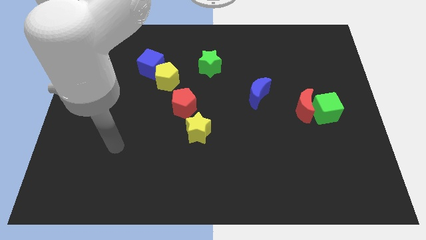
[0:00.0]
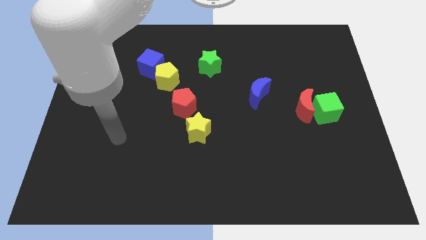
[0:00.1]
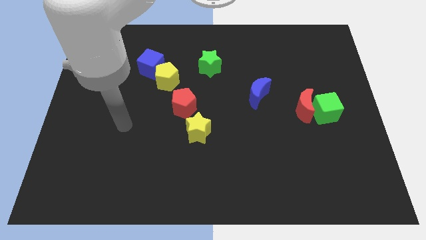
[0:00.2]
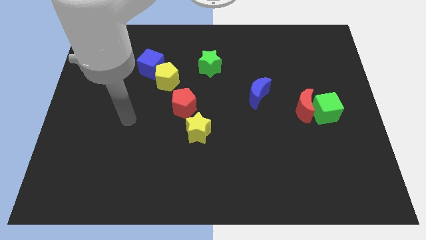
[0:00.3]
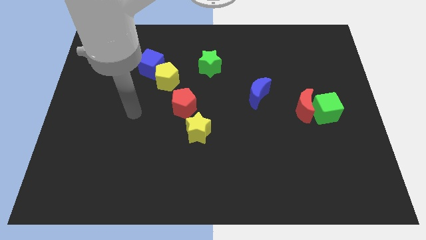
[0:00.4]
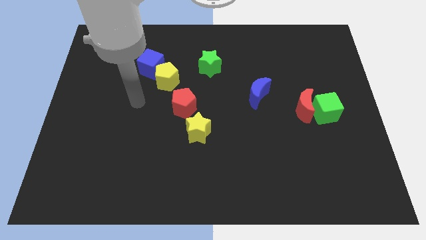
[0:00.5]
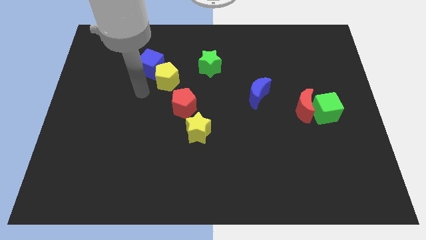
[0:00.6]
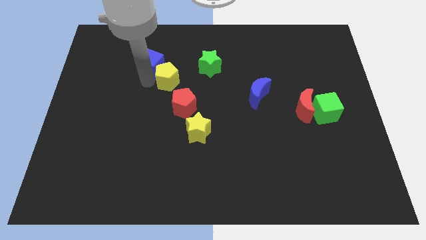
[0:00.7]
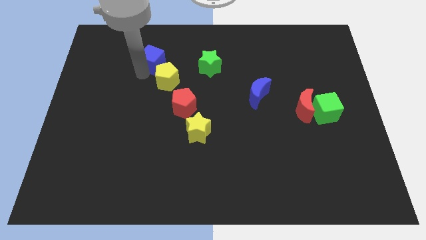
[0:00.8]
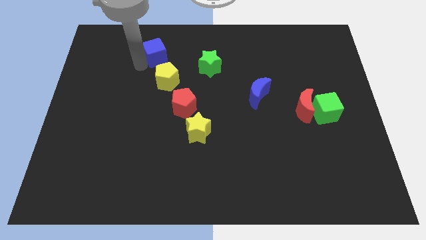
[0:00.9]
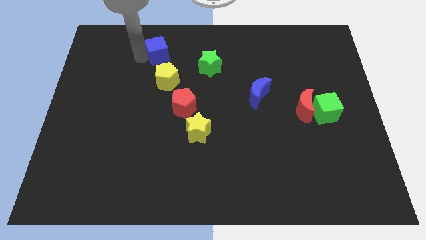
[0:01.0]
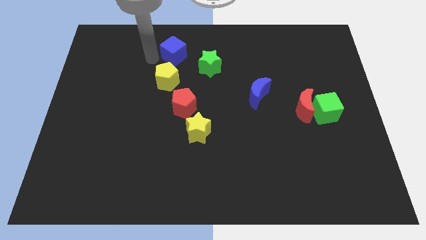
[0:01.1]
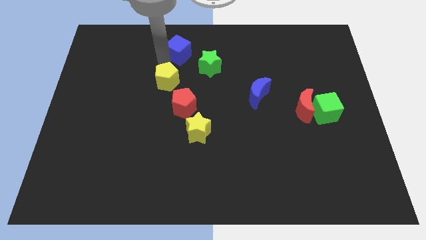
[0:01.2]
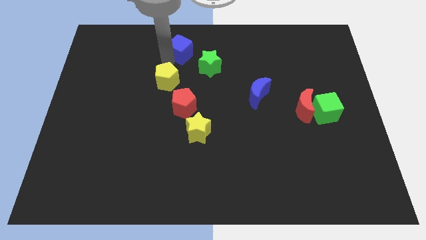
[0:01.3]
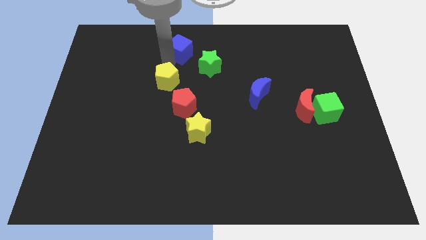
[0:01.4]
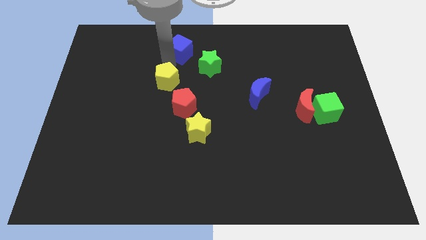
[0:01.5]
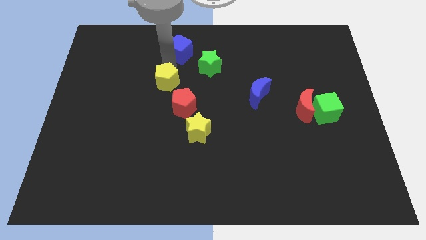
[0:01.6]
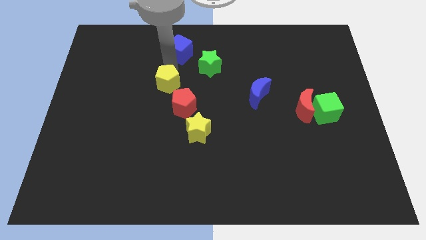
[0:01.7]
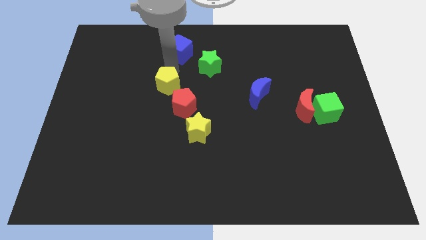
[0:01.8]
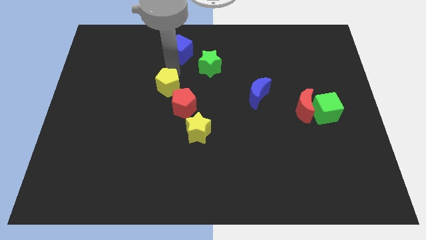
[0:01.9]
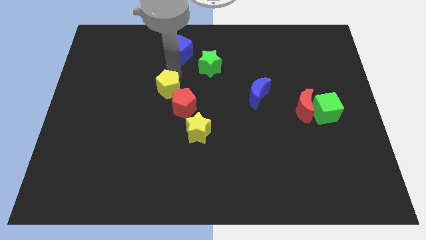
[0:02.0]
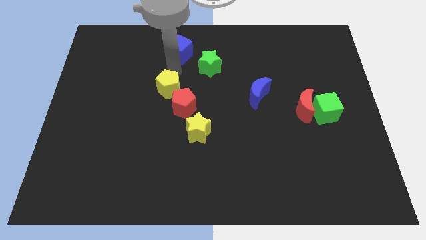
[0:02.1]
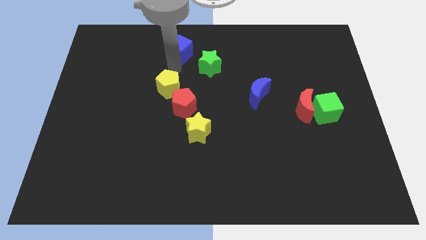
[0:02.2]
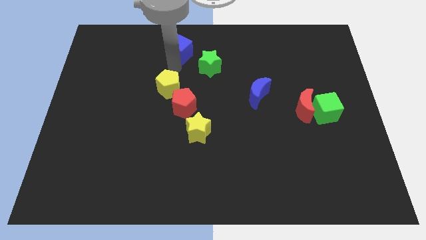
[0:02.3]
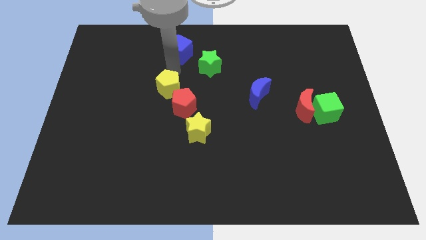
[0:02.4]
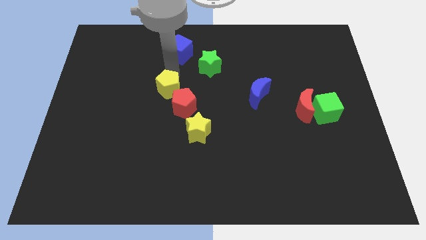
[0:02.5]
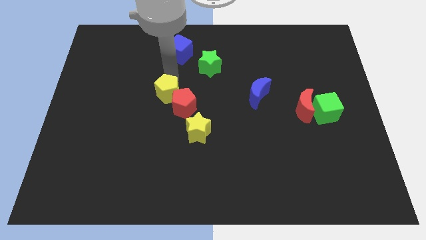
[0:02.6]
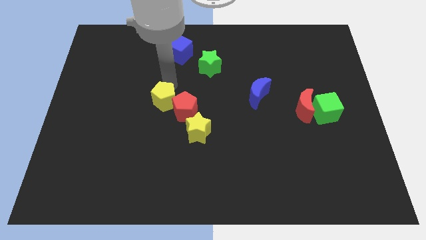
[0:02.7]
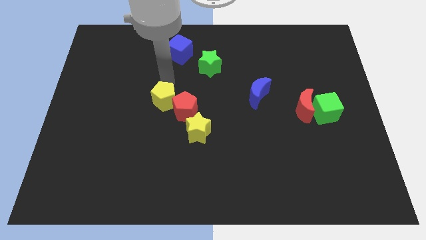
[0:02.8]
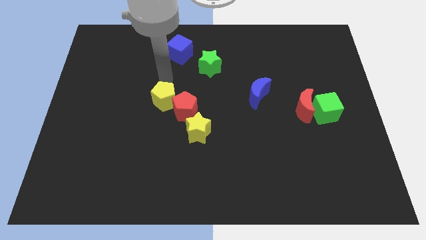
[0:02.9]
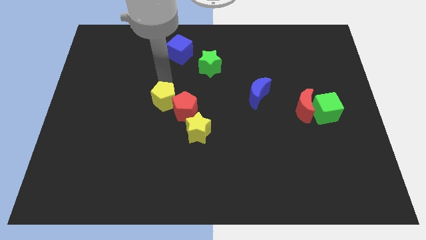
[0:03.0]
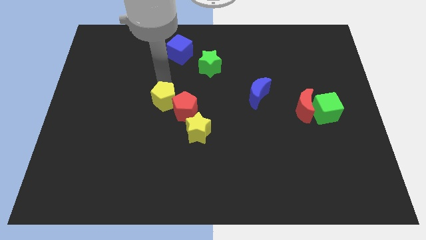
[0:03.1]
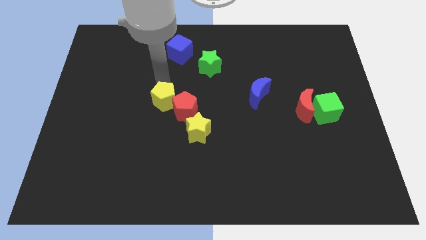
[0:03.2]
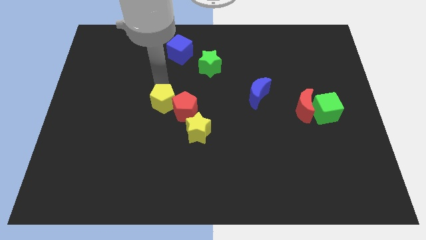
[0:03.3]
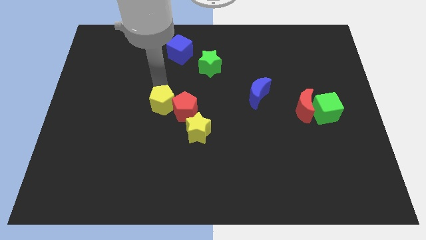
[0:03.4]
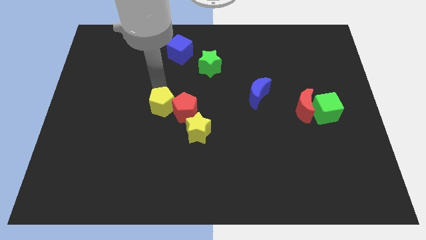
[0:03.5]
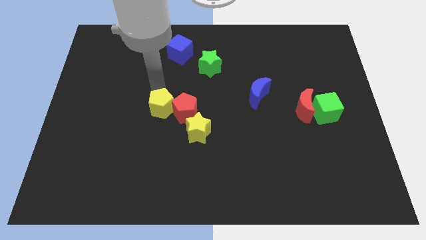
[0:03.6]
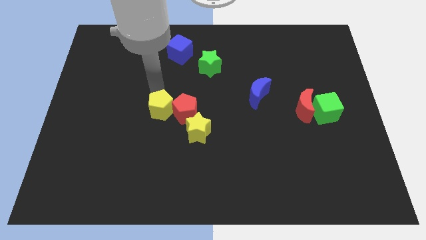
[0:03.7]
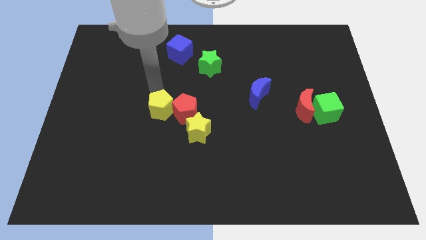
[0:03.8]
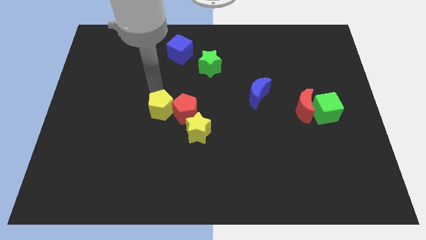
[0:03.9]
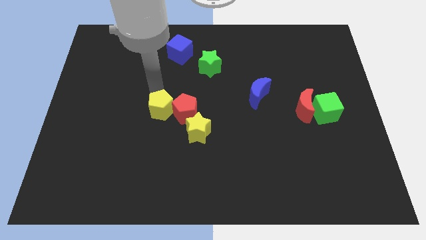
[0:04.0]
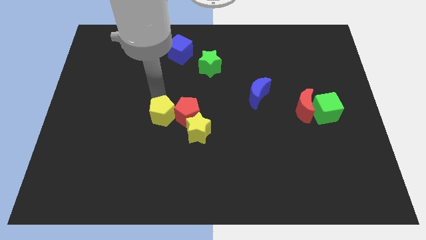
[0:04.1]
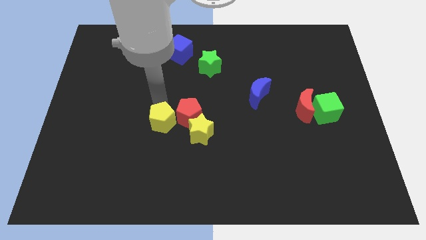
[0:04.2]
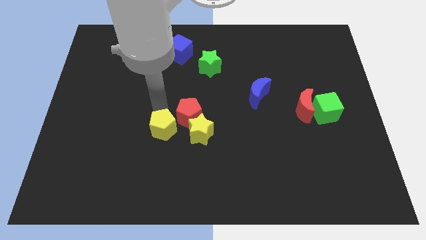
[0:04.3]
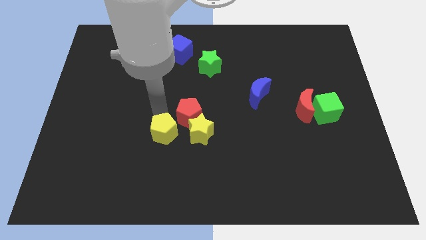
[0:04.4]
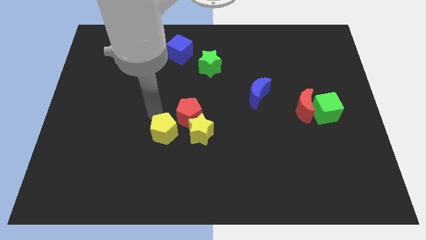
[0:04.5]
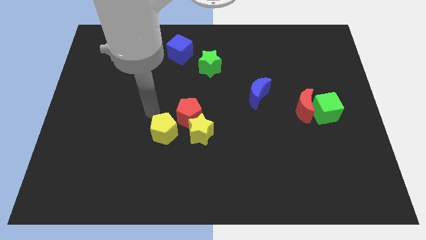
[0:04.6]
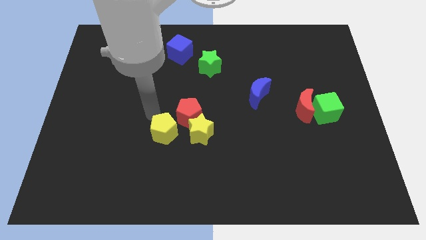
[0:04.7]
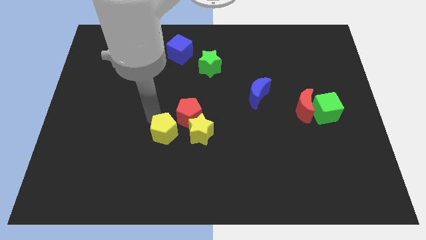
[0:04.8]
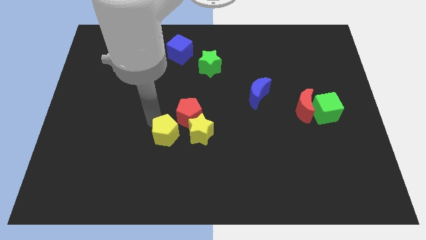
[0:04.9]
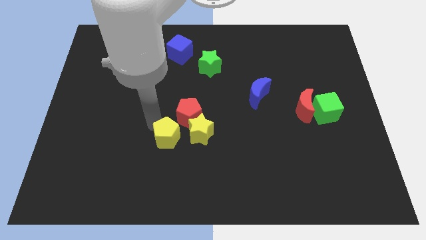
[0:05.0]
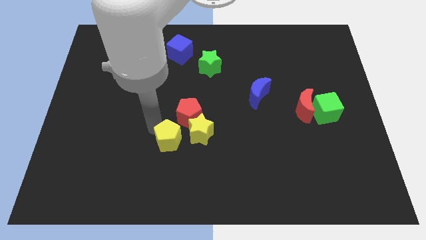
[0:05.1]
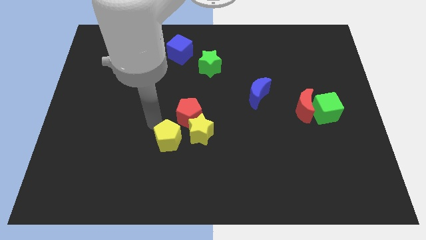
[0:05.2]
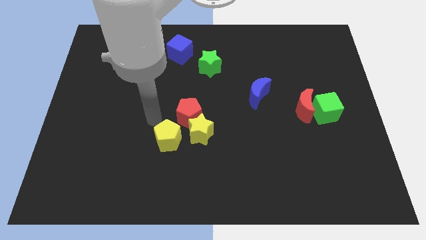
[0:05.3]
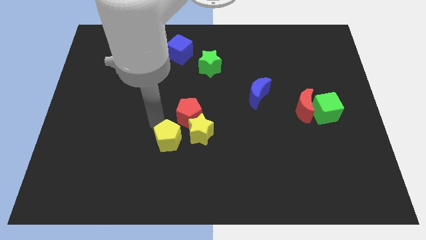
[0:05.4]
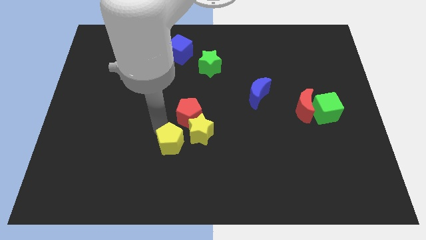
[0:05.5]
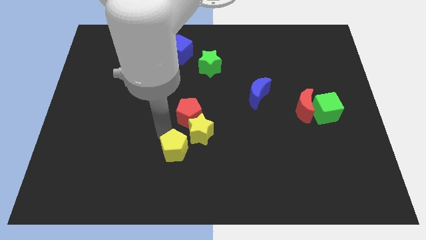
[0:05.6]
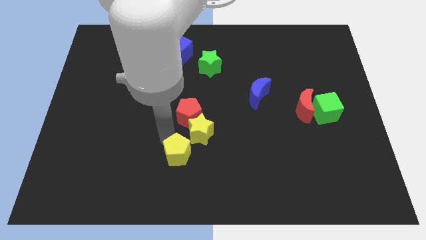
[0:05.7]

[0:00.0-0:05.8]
move the yellow pentagon to the bottom of the yellow star

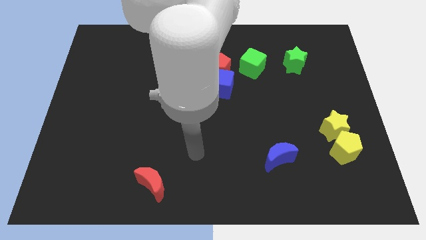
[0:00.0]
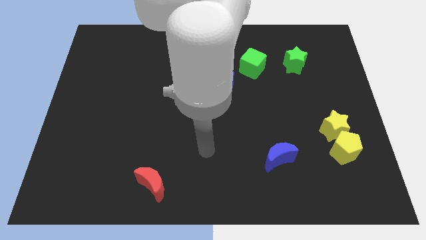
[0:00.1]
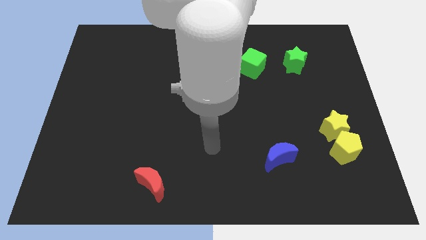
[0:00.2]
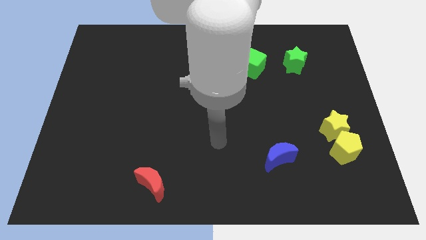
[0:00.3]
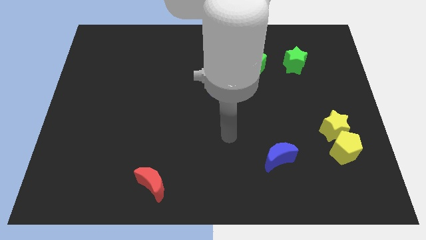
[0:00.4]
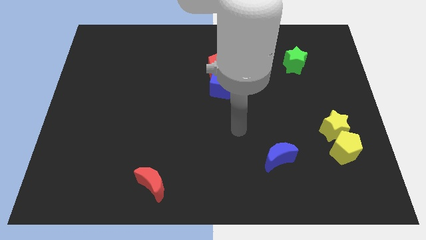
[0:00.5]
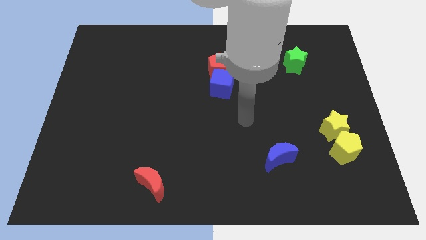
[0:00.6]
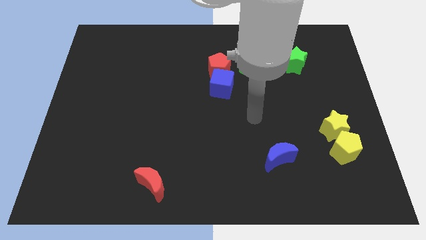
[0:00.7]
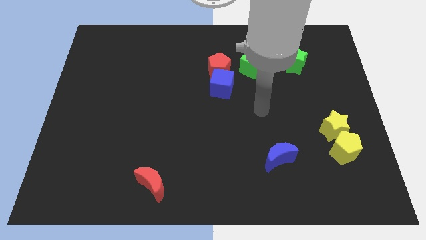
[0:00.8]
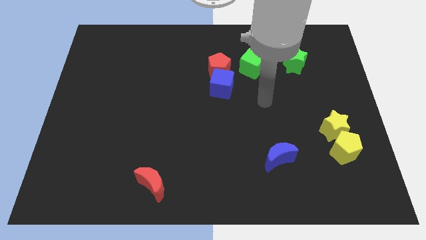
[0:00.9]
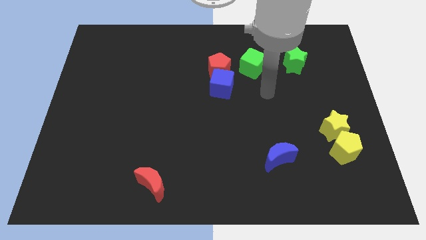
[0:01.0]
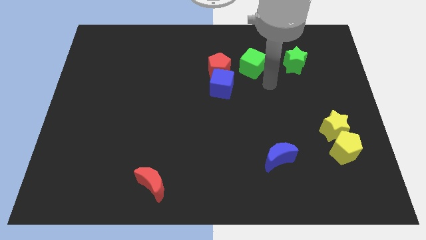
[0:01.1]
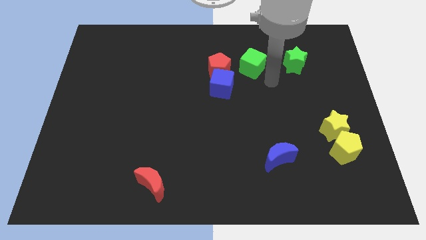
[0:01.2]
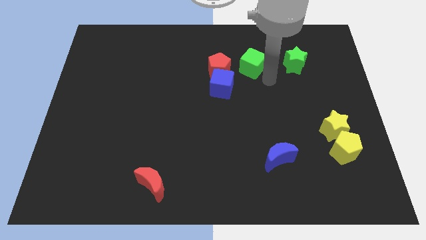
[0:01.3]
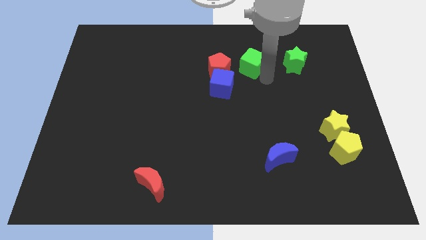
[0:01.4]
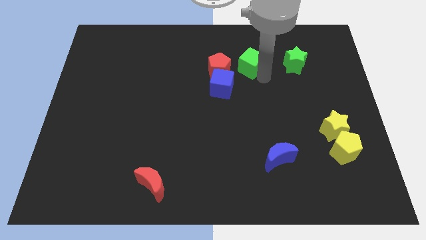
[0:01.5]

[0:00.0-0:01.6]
push the green cube to the top right side of the red pentagon
